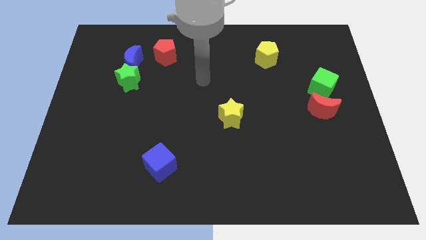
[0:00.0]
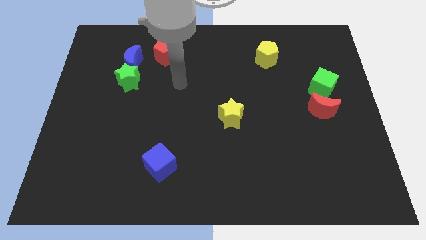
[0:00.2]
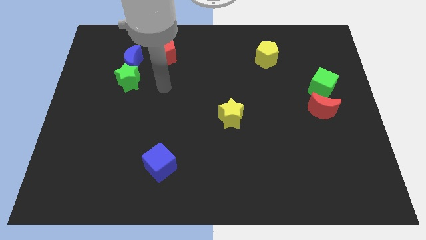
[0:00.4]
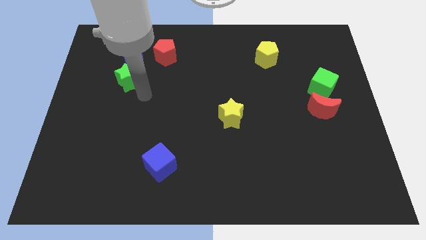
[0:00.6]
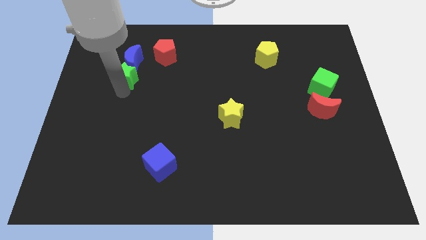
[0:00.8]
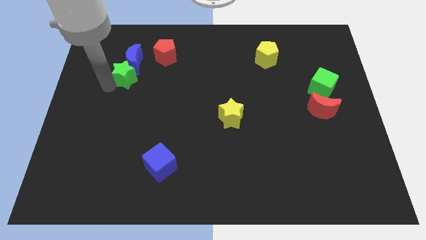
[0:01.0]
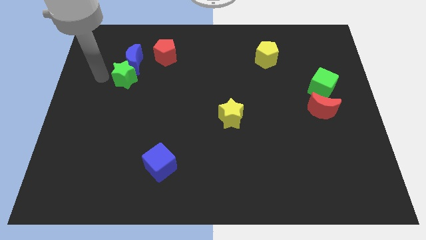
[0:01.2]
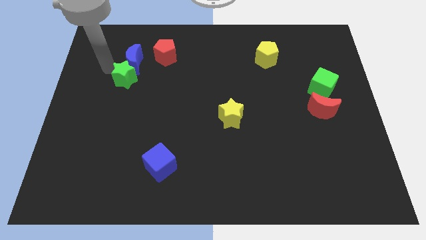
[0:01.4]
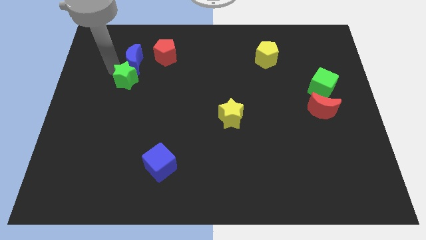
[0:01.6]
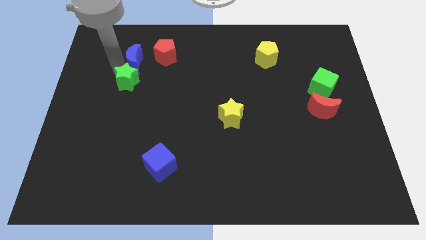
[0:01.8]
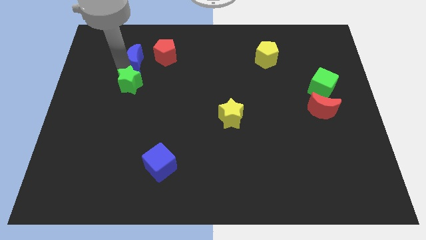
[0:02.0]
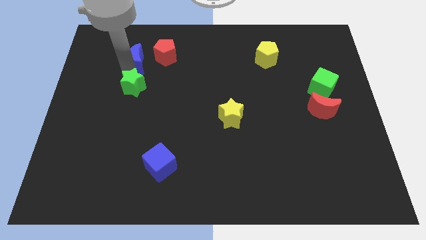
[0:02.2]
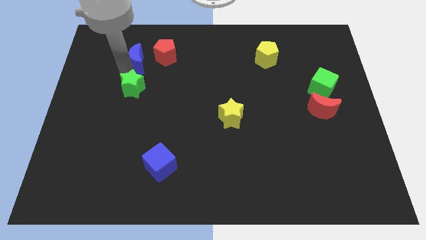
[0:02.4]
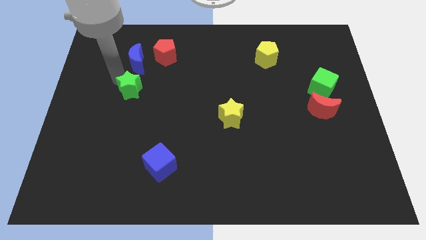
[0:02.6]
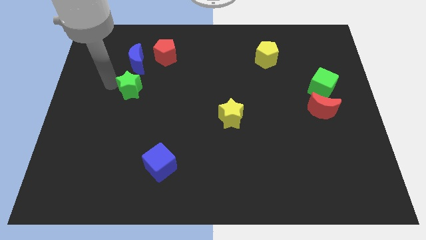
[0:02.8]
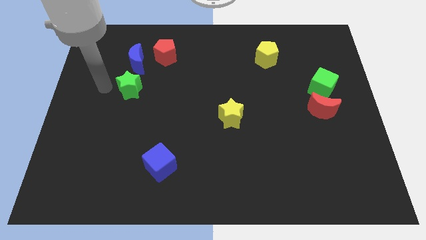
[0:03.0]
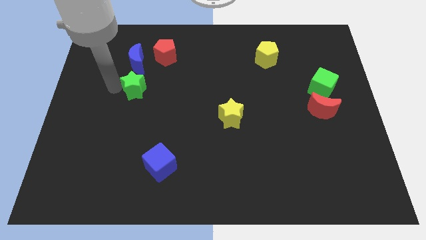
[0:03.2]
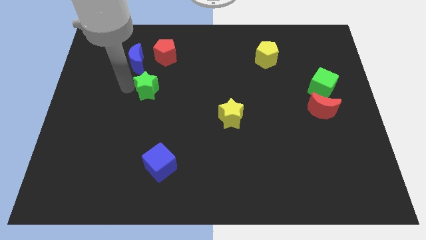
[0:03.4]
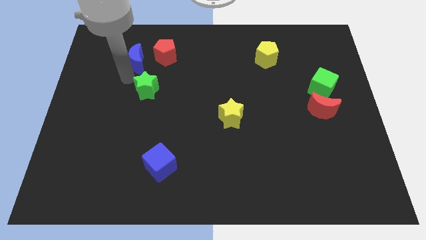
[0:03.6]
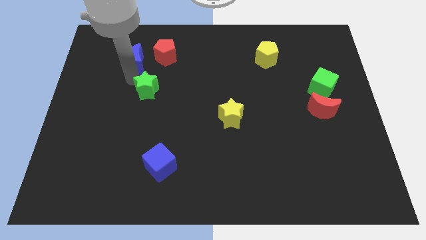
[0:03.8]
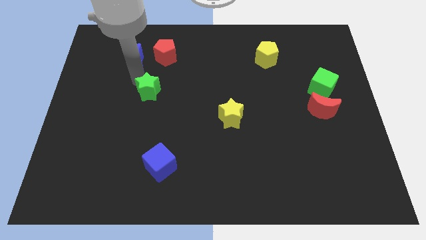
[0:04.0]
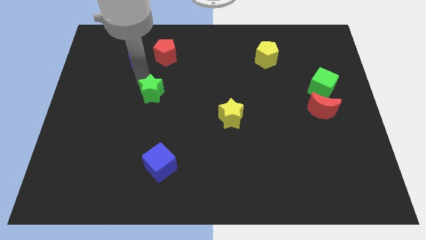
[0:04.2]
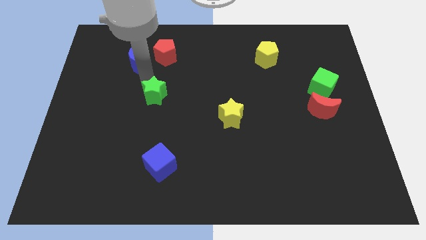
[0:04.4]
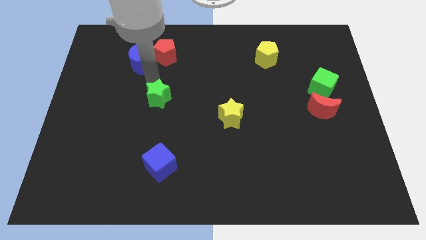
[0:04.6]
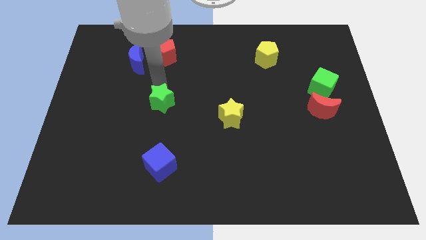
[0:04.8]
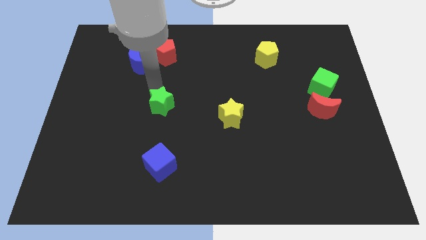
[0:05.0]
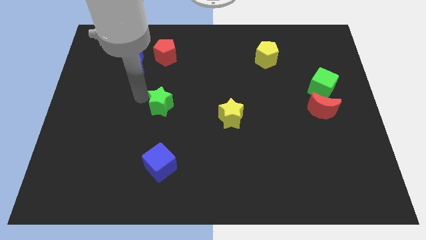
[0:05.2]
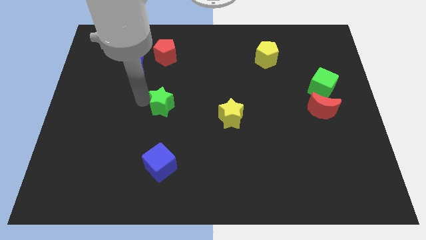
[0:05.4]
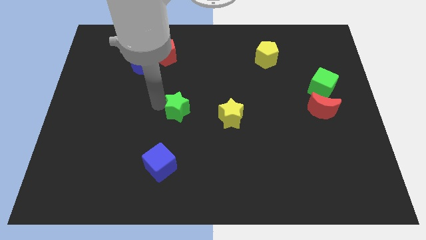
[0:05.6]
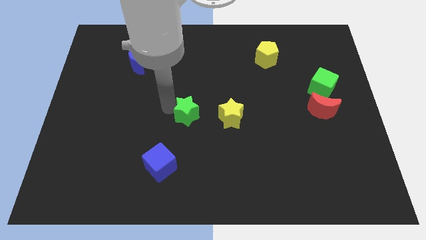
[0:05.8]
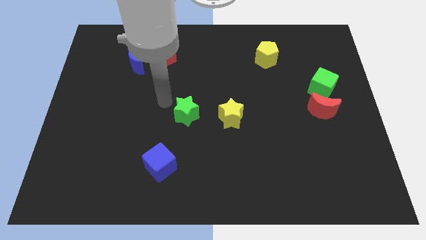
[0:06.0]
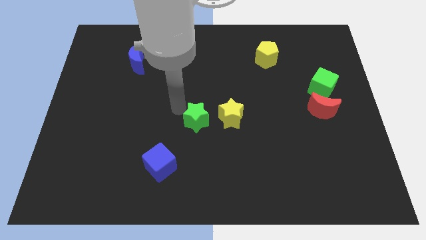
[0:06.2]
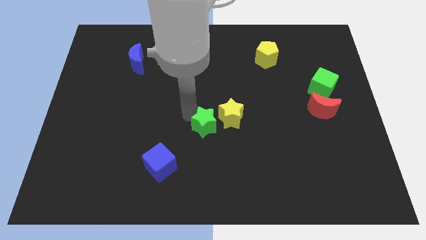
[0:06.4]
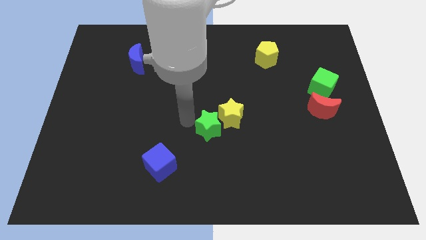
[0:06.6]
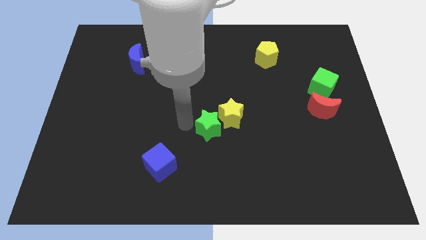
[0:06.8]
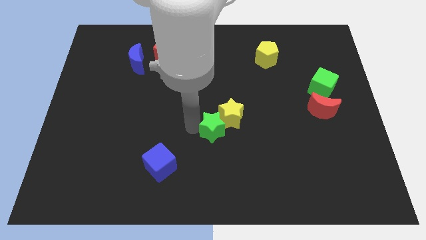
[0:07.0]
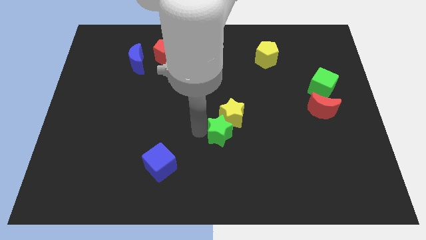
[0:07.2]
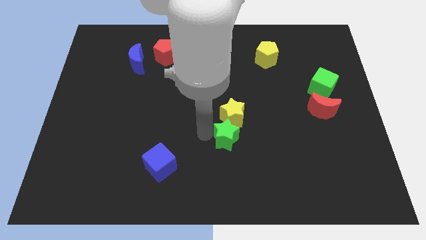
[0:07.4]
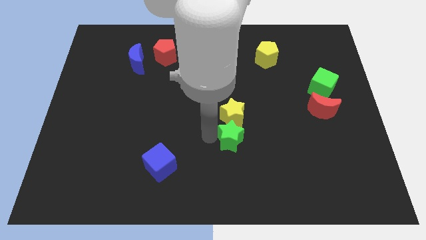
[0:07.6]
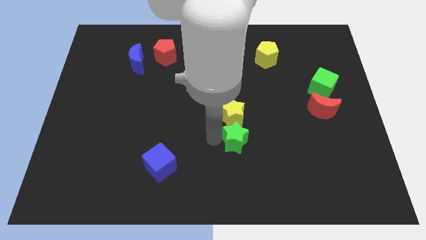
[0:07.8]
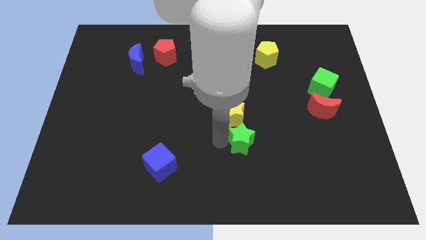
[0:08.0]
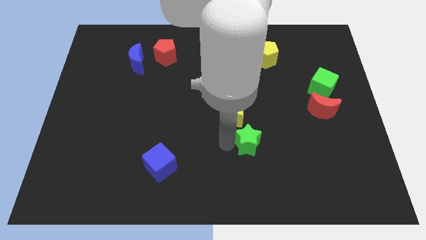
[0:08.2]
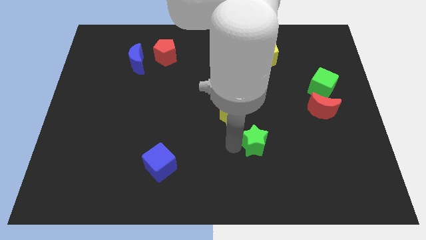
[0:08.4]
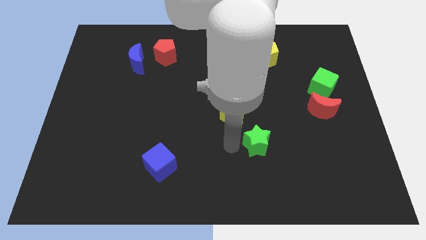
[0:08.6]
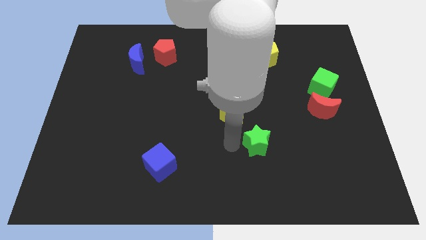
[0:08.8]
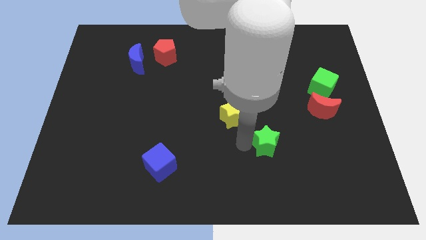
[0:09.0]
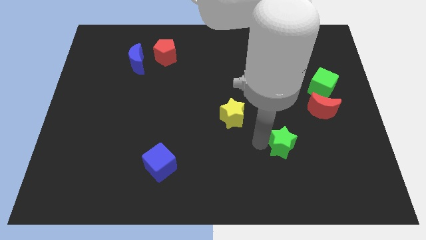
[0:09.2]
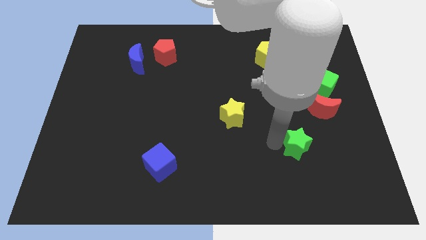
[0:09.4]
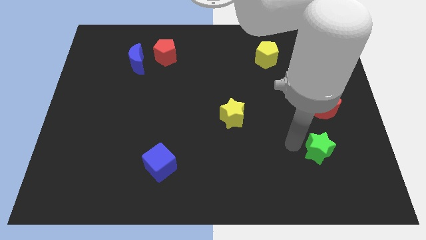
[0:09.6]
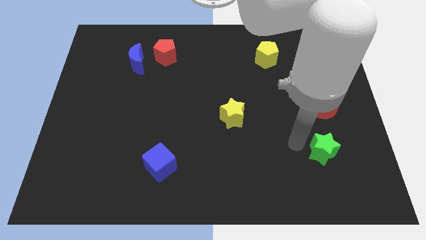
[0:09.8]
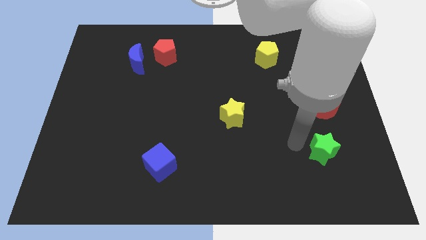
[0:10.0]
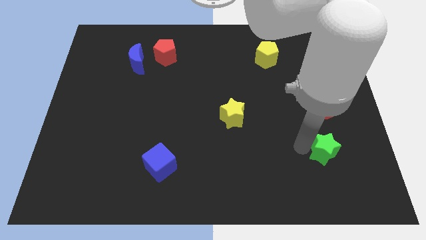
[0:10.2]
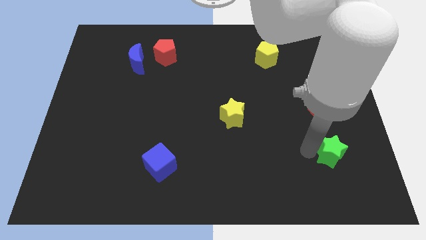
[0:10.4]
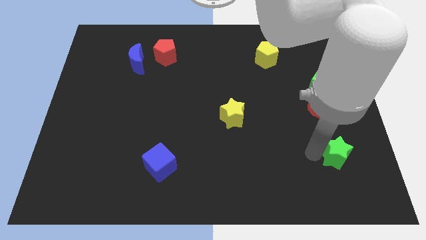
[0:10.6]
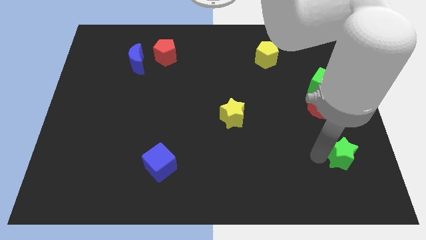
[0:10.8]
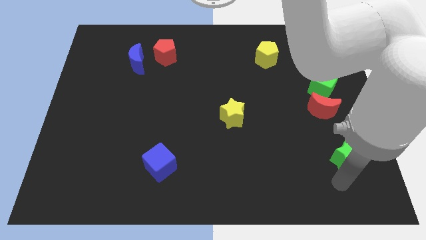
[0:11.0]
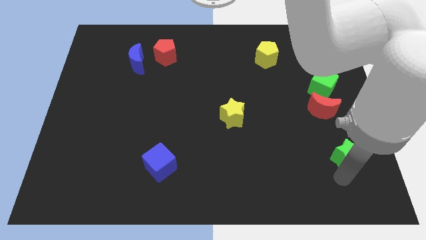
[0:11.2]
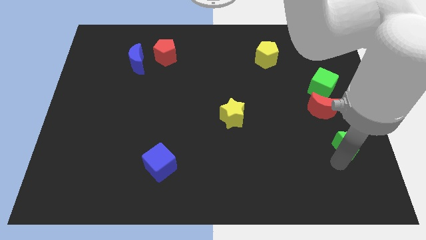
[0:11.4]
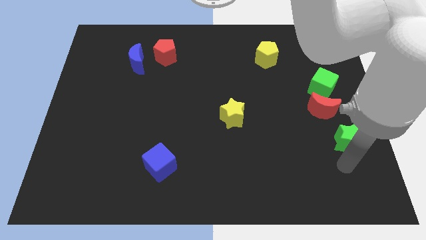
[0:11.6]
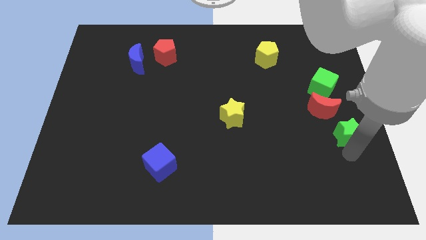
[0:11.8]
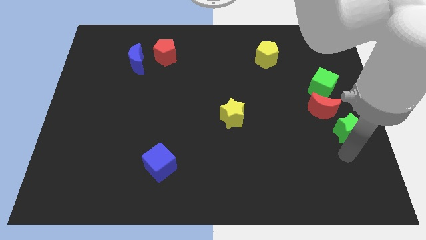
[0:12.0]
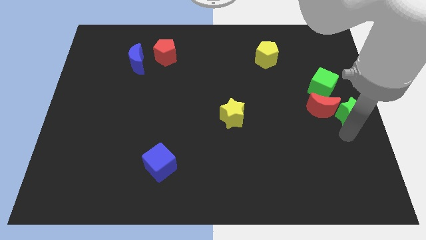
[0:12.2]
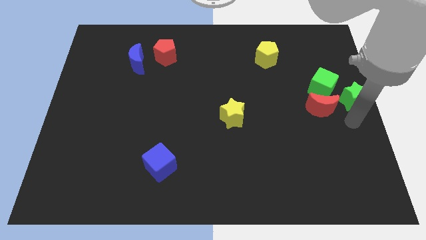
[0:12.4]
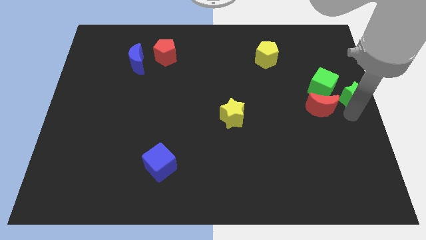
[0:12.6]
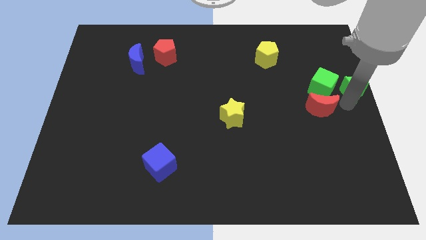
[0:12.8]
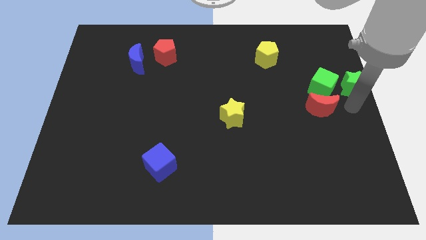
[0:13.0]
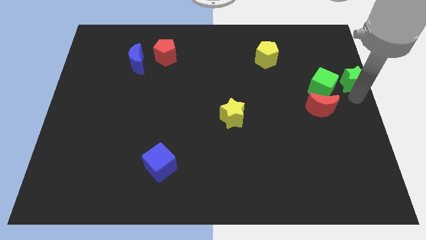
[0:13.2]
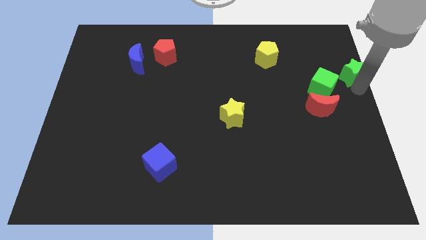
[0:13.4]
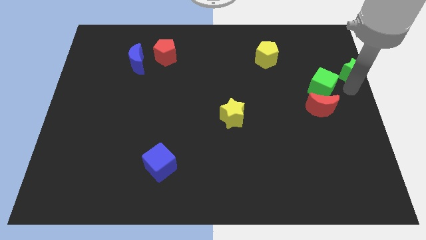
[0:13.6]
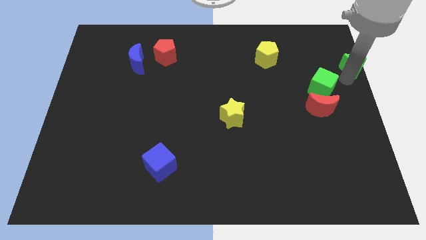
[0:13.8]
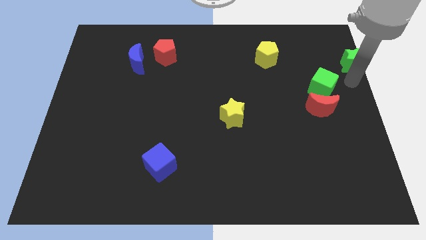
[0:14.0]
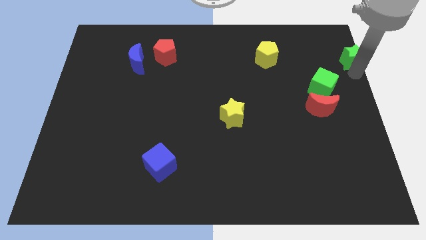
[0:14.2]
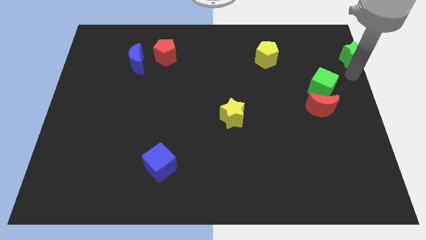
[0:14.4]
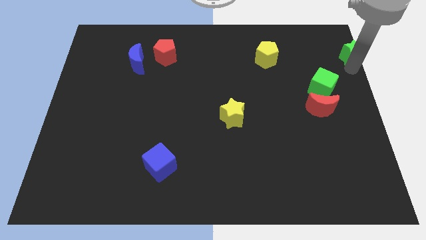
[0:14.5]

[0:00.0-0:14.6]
push the green star to the top right corner

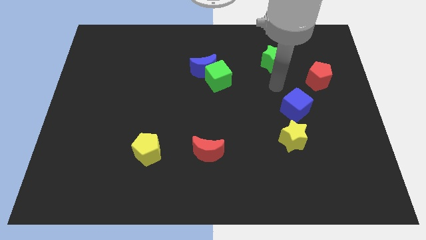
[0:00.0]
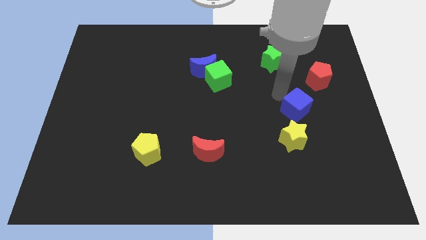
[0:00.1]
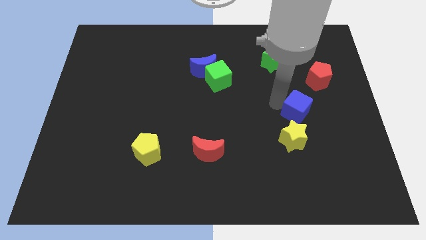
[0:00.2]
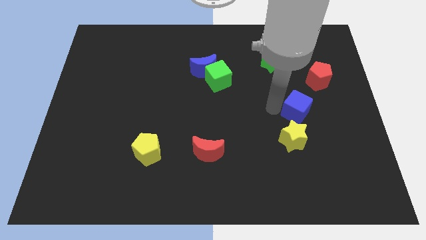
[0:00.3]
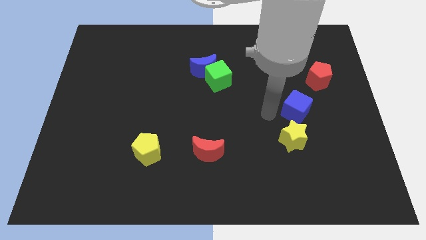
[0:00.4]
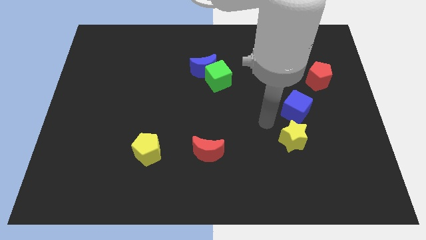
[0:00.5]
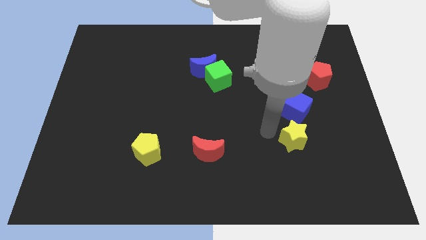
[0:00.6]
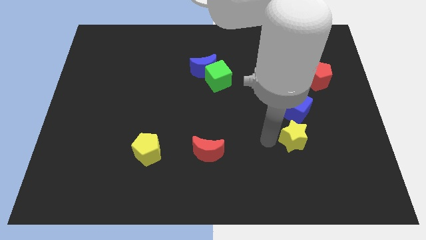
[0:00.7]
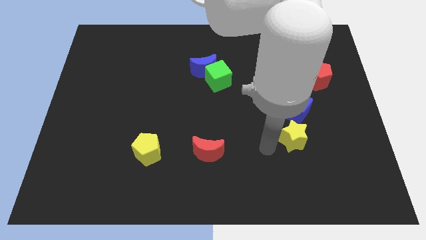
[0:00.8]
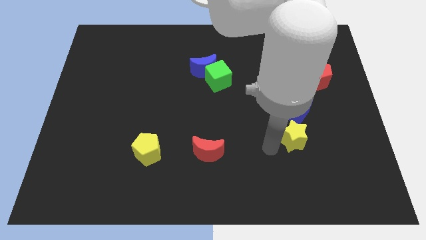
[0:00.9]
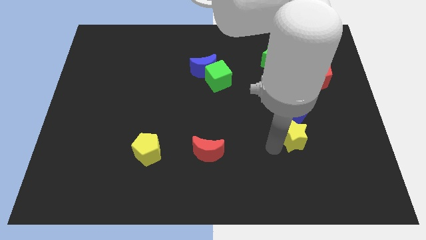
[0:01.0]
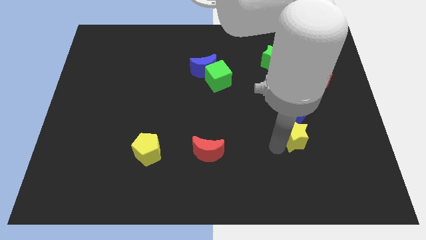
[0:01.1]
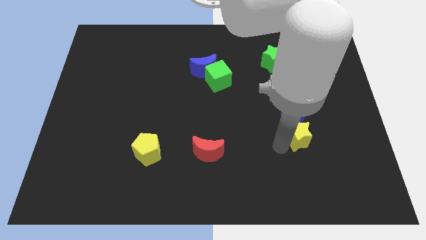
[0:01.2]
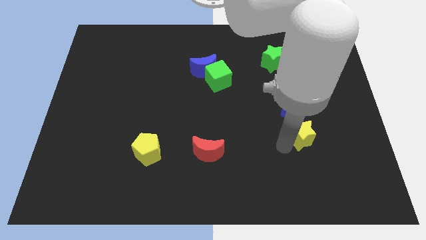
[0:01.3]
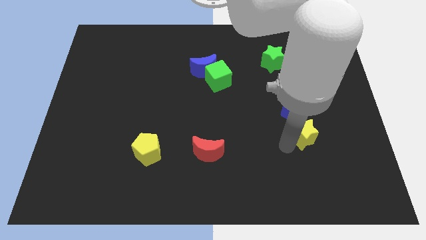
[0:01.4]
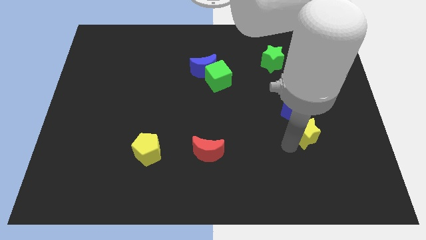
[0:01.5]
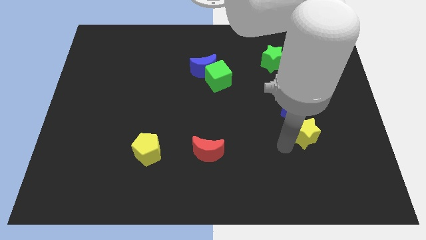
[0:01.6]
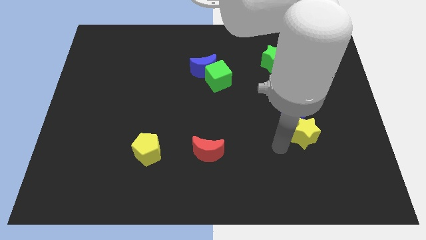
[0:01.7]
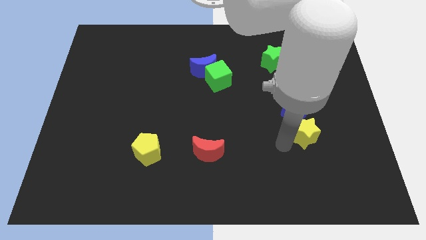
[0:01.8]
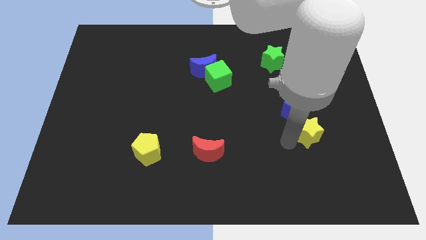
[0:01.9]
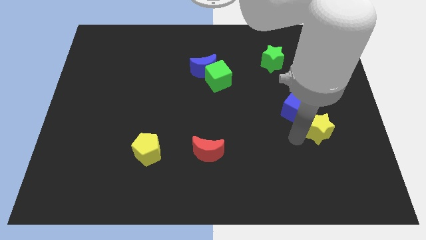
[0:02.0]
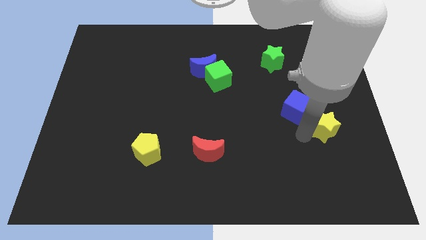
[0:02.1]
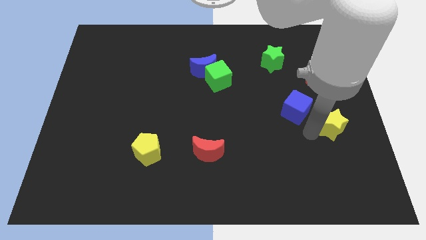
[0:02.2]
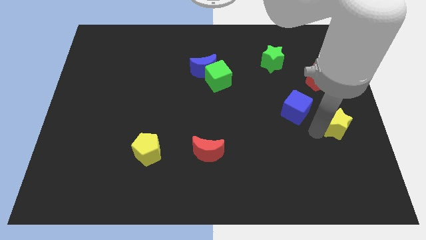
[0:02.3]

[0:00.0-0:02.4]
push the yellow star to the center right
